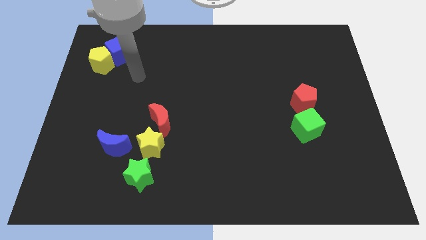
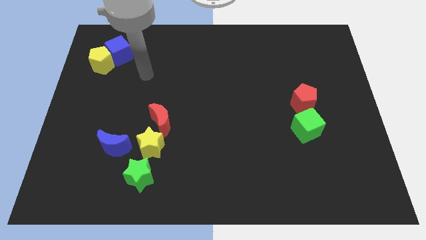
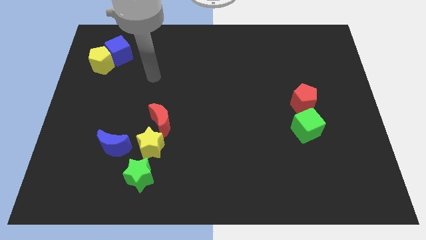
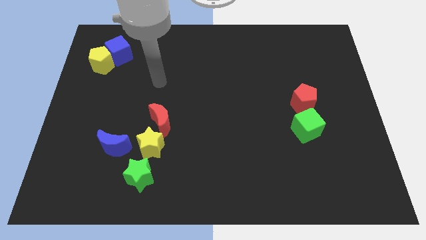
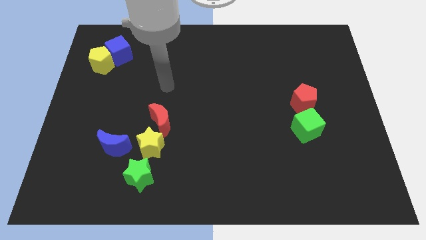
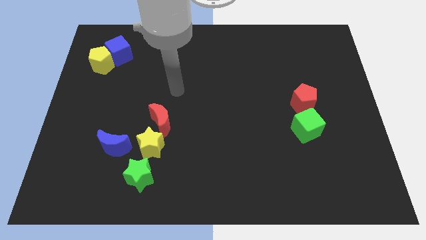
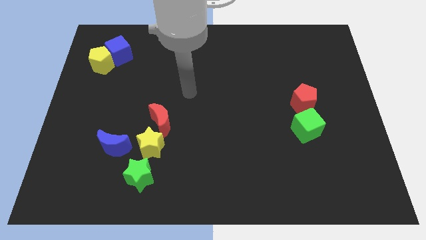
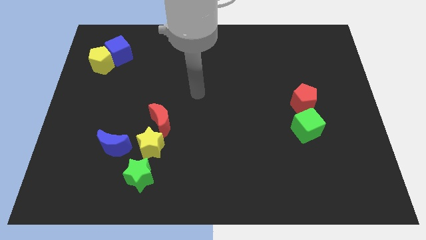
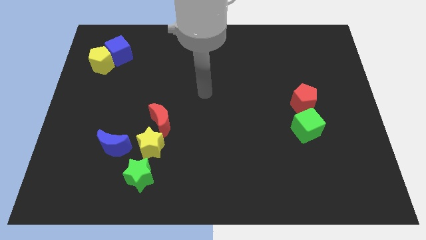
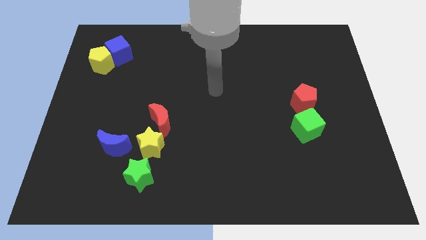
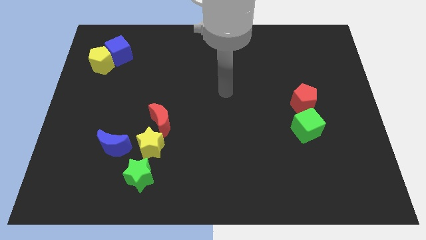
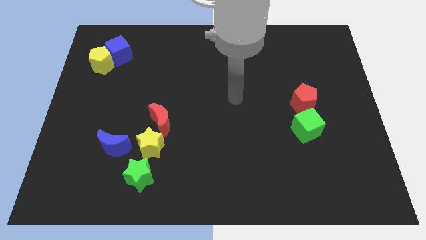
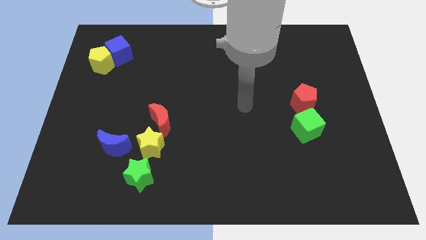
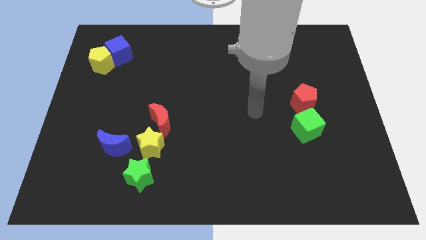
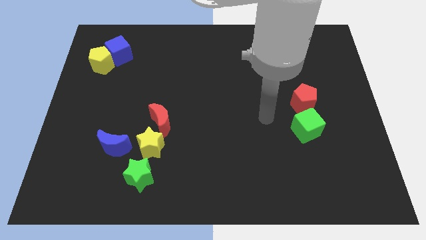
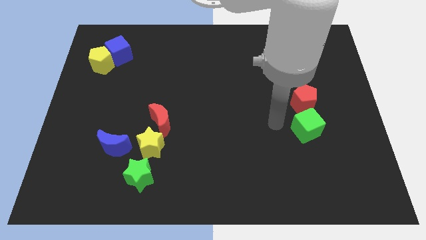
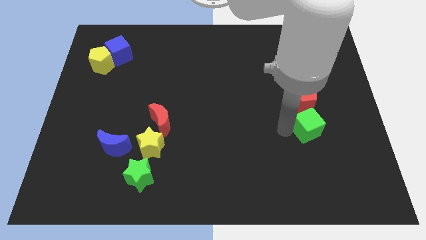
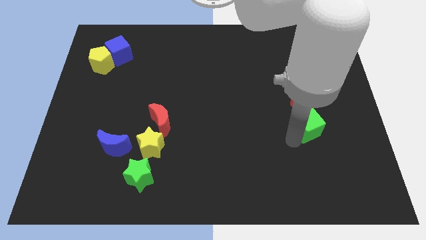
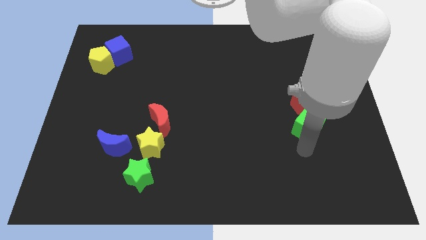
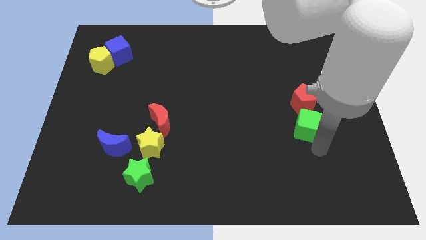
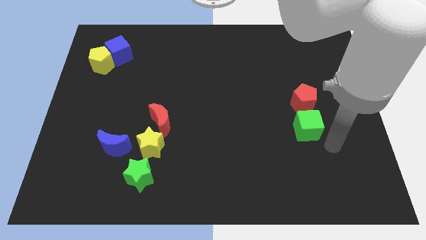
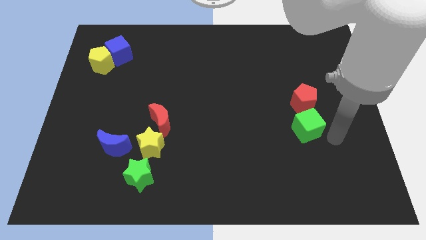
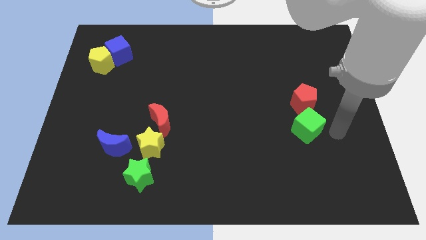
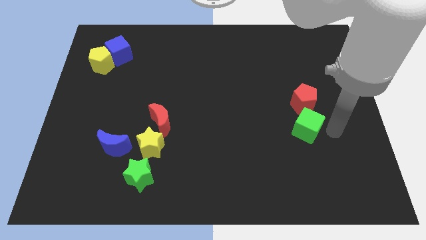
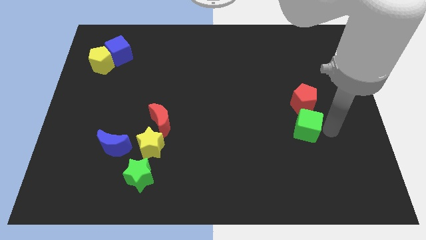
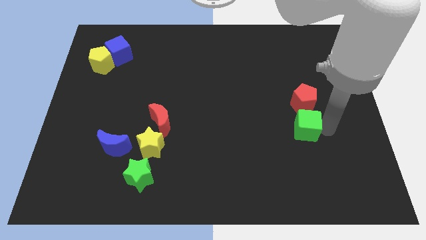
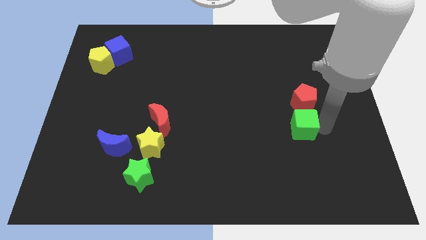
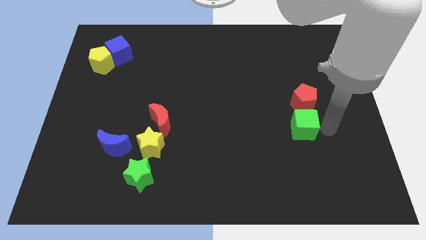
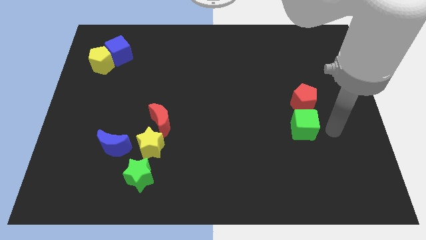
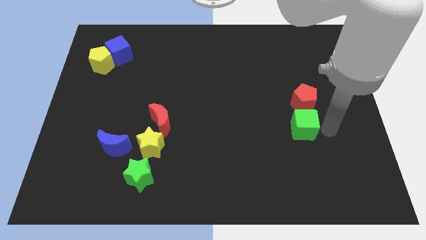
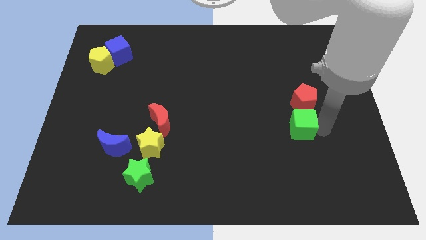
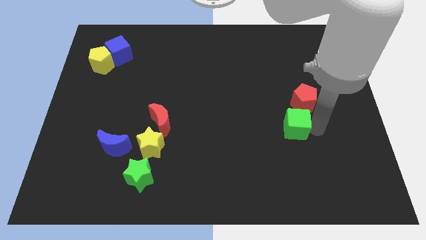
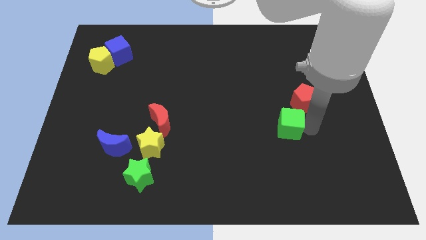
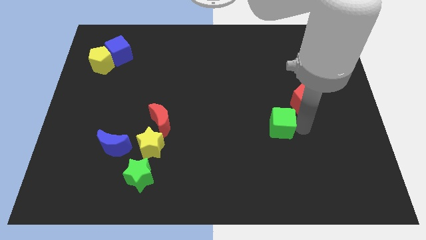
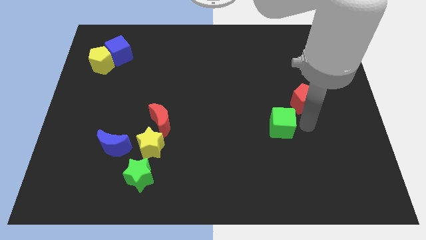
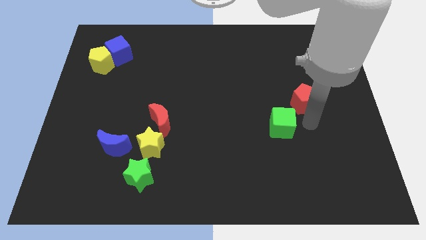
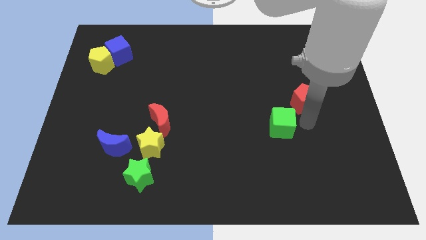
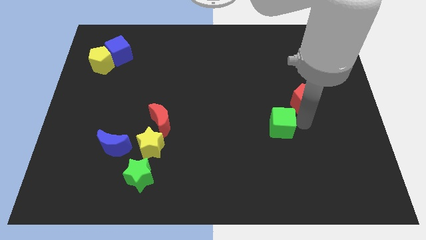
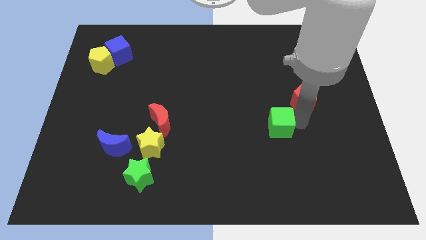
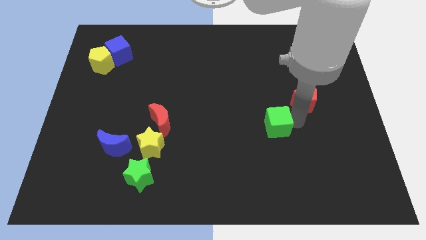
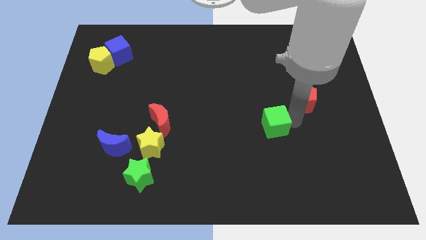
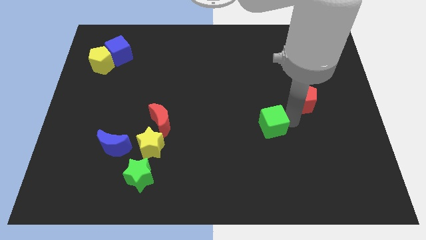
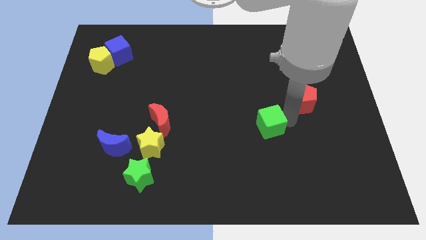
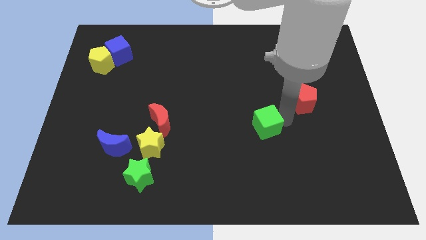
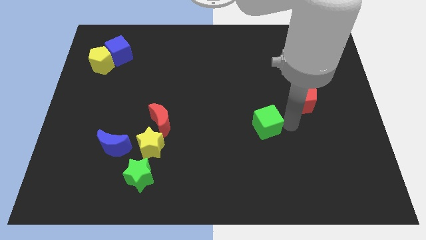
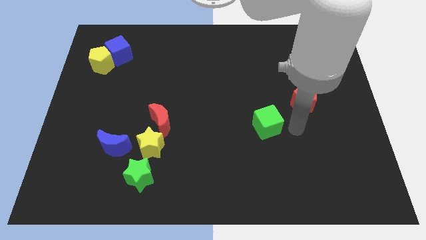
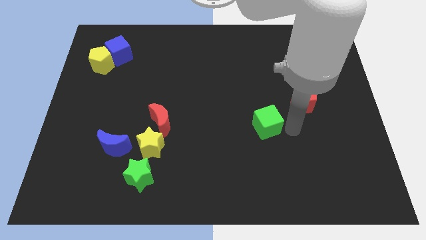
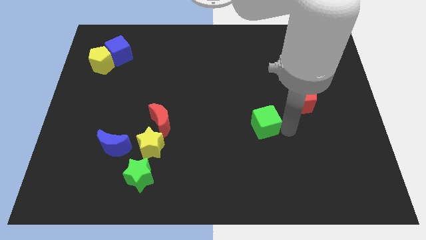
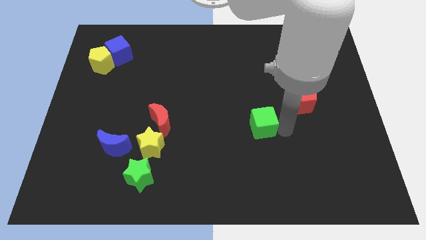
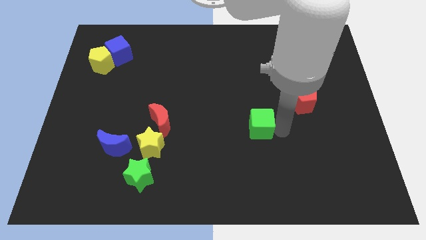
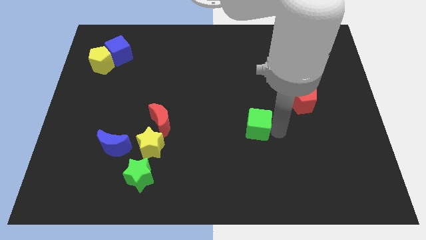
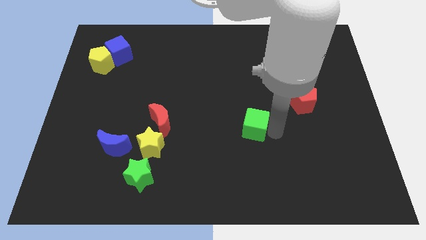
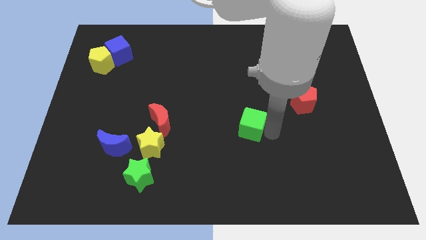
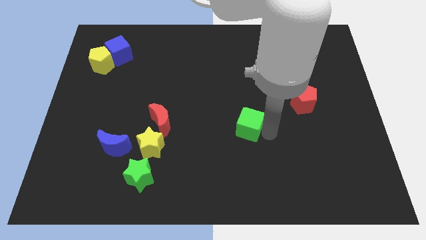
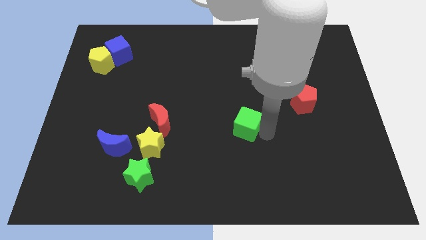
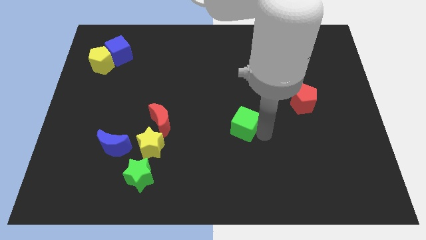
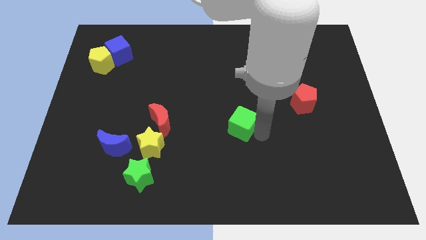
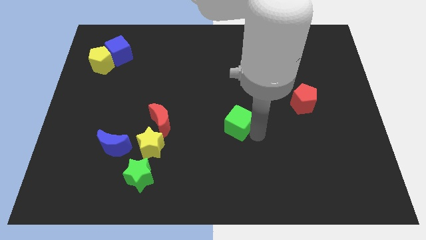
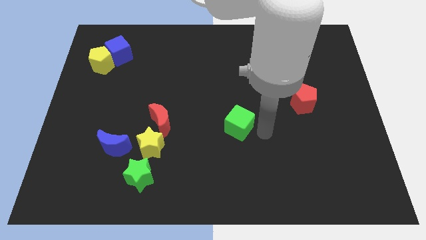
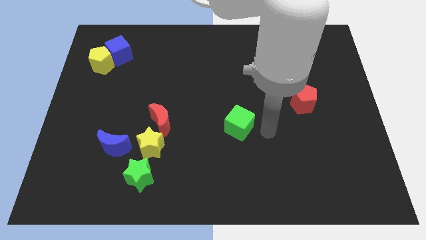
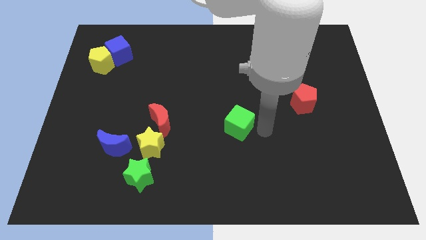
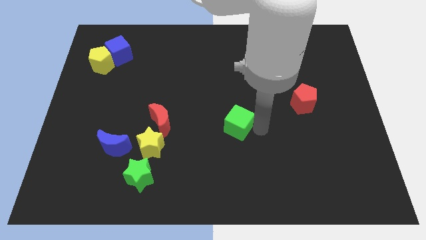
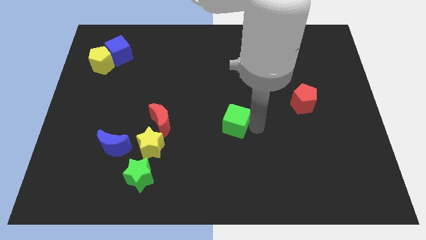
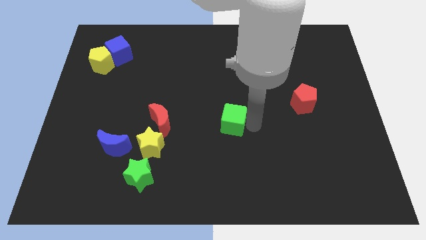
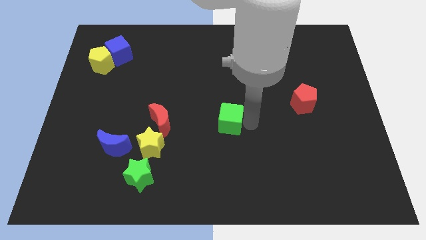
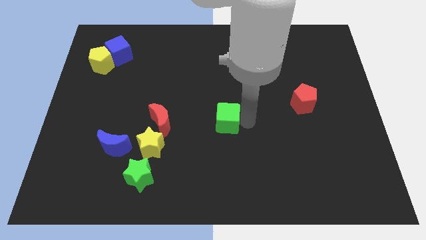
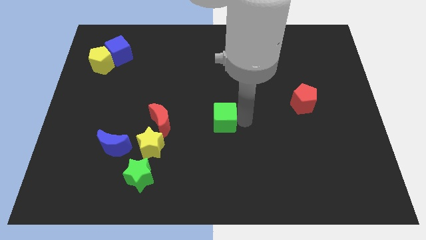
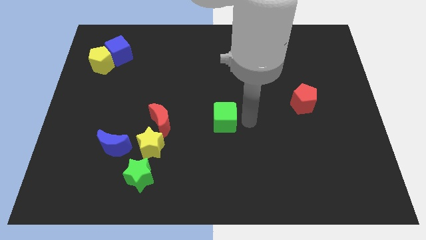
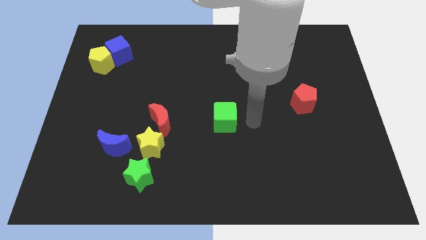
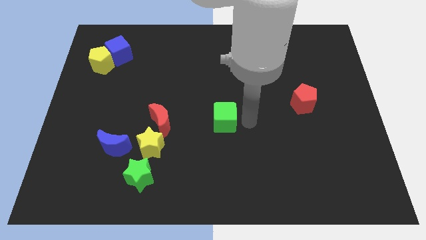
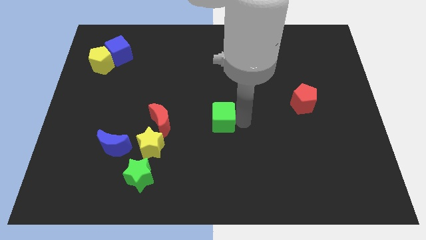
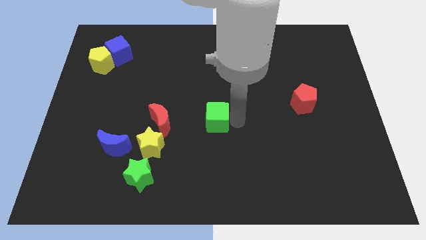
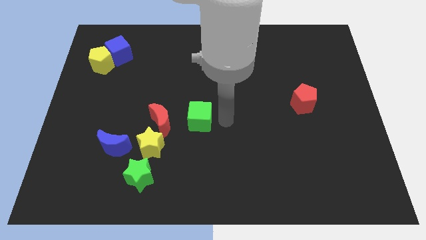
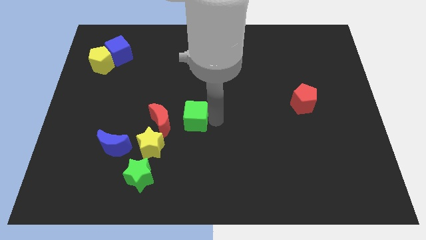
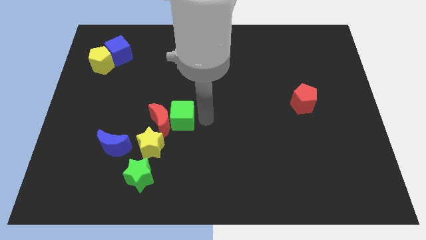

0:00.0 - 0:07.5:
put the green cube to the red moon
